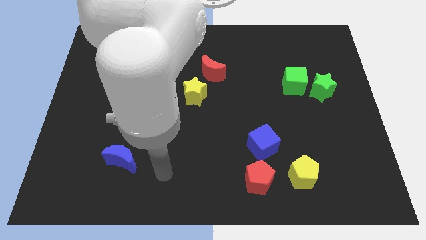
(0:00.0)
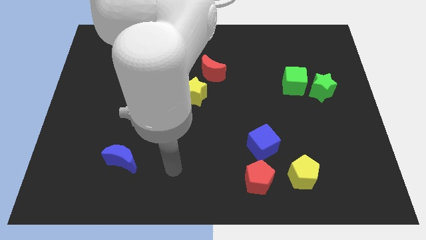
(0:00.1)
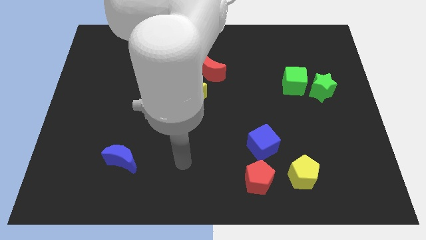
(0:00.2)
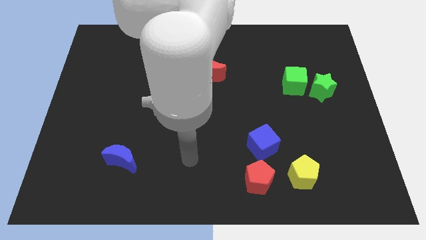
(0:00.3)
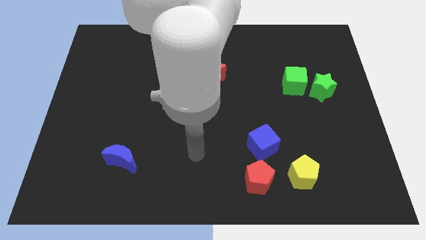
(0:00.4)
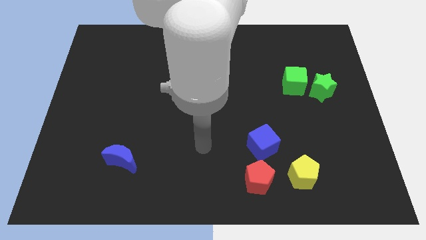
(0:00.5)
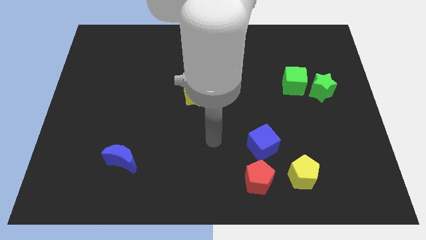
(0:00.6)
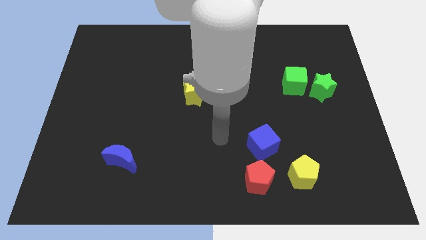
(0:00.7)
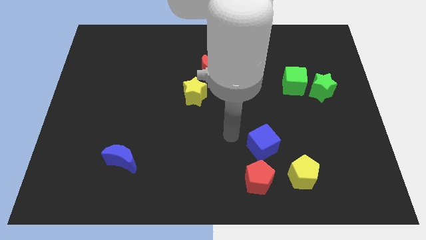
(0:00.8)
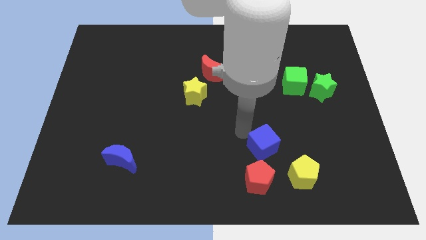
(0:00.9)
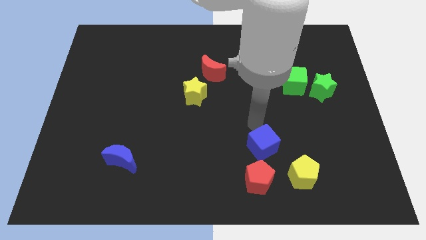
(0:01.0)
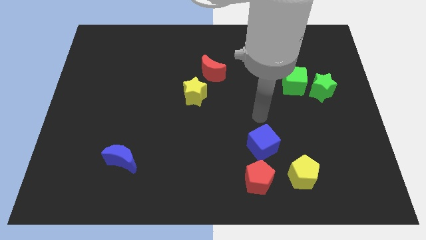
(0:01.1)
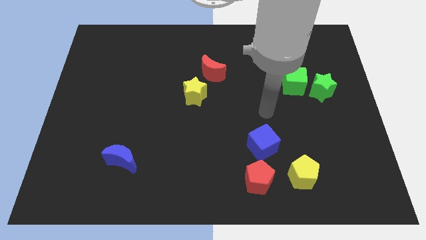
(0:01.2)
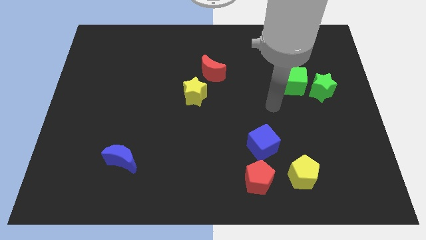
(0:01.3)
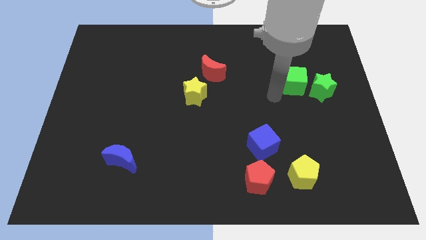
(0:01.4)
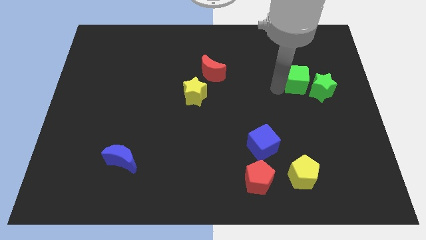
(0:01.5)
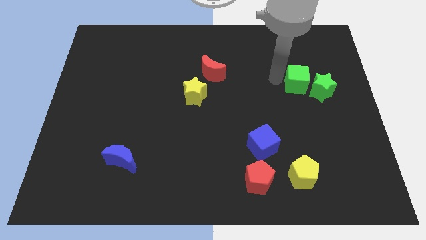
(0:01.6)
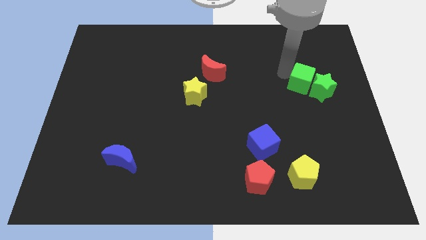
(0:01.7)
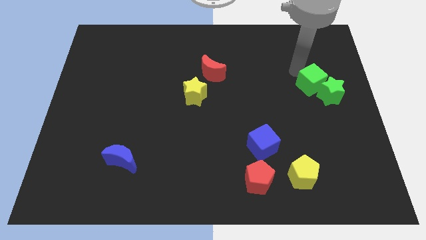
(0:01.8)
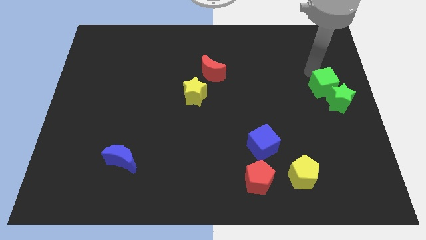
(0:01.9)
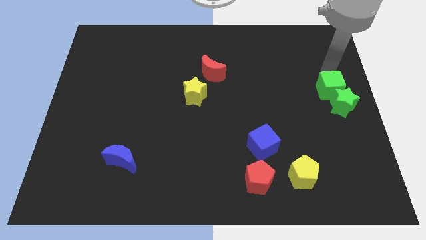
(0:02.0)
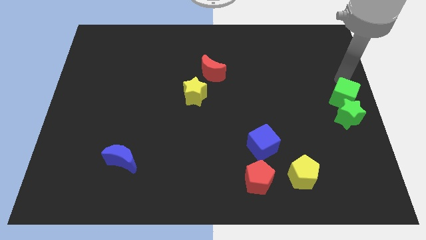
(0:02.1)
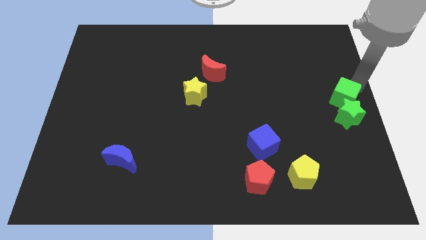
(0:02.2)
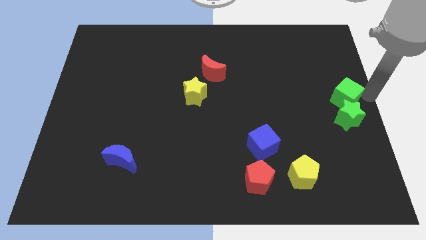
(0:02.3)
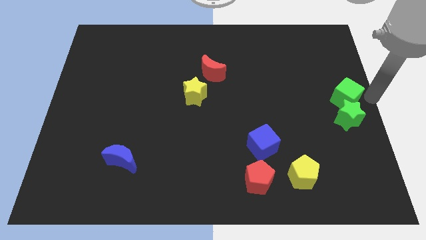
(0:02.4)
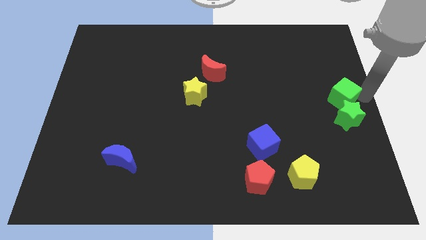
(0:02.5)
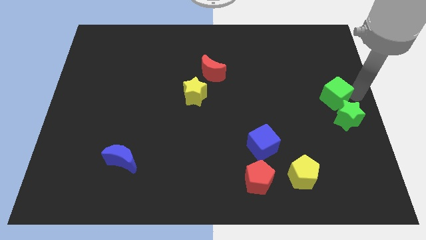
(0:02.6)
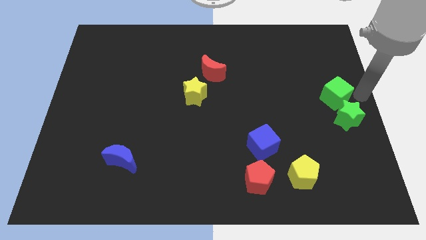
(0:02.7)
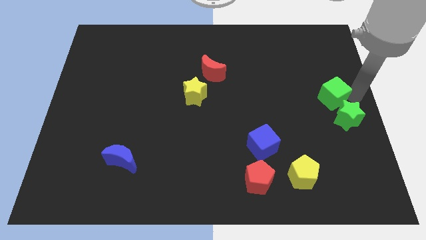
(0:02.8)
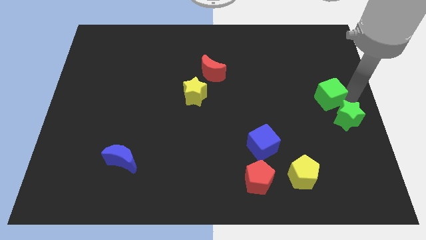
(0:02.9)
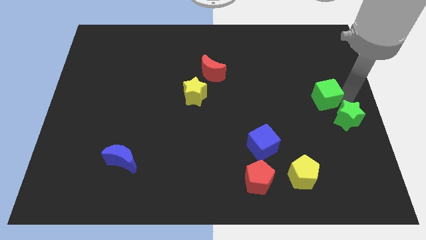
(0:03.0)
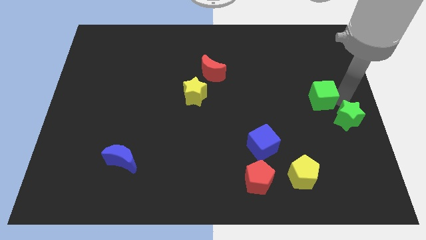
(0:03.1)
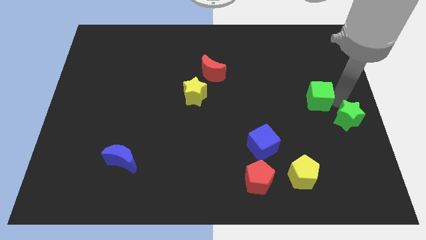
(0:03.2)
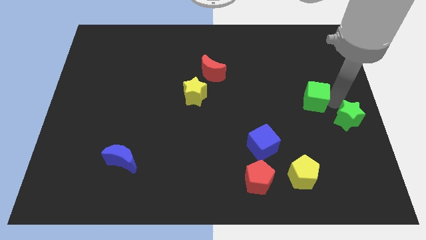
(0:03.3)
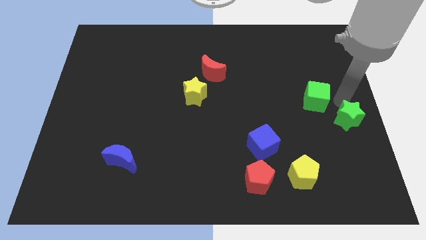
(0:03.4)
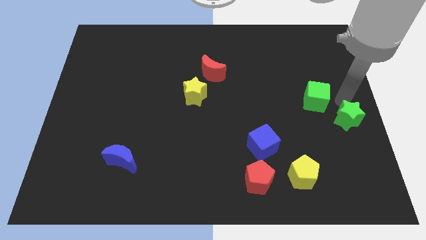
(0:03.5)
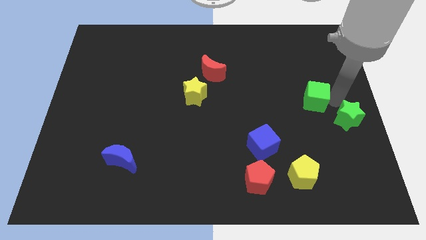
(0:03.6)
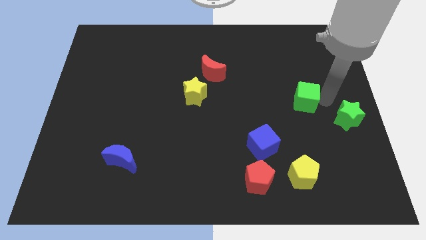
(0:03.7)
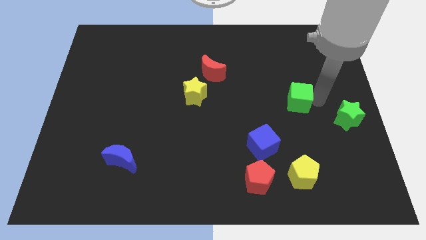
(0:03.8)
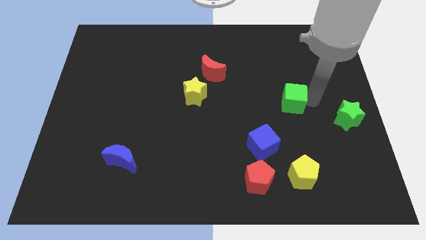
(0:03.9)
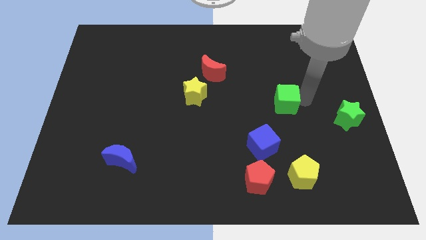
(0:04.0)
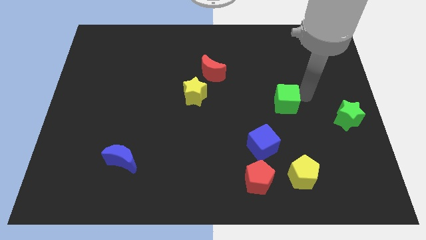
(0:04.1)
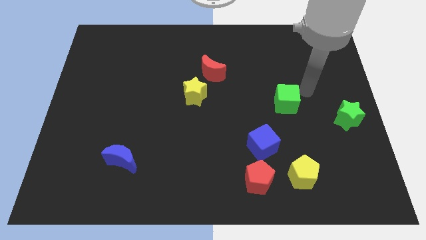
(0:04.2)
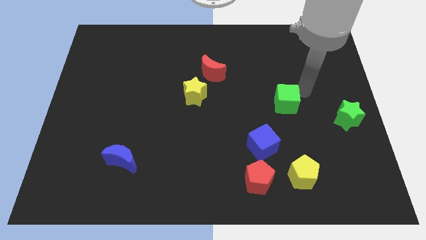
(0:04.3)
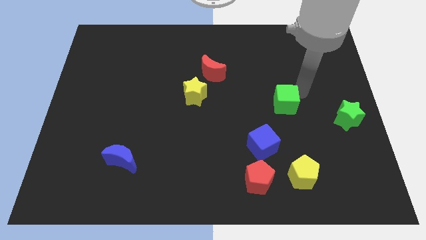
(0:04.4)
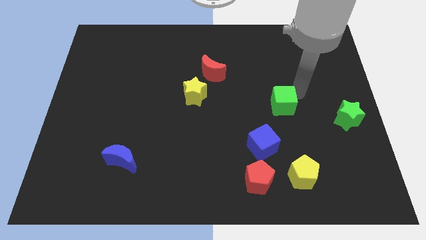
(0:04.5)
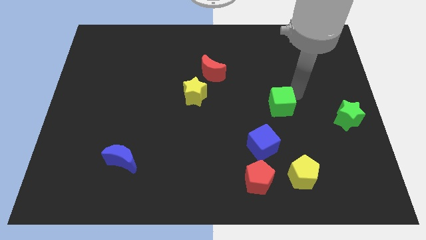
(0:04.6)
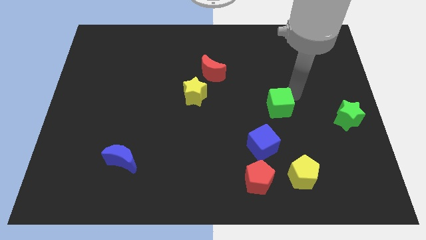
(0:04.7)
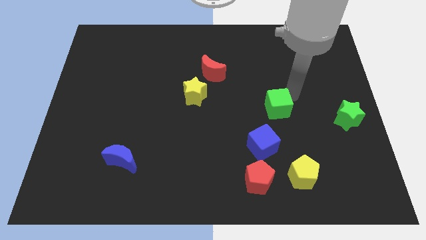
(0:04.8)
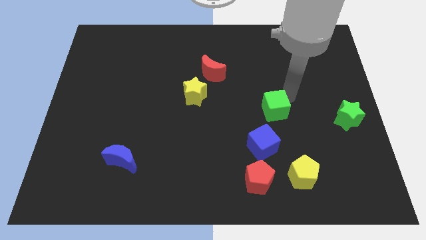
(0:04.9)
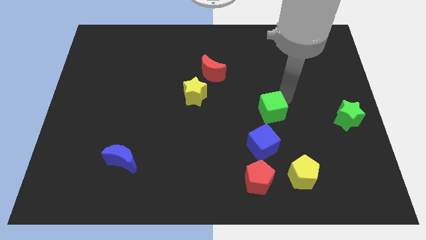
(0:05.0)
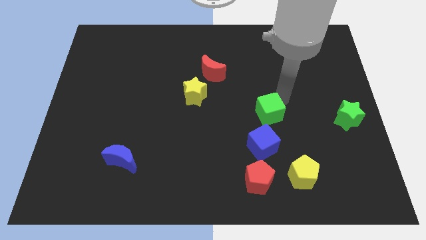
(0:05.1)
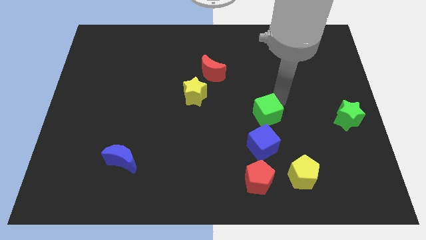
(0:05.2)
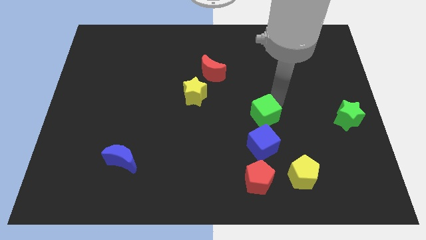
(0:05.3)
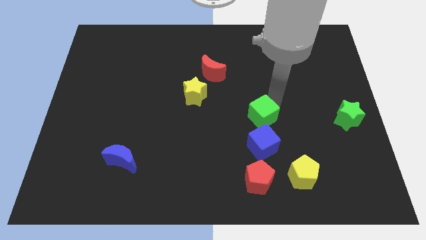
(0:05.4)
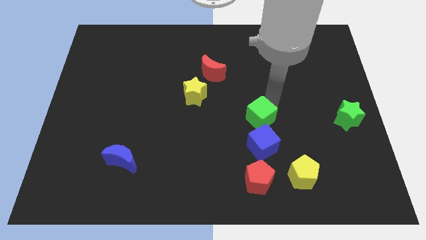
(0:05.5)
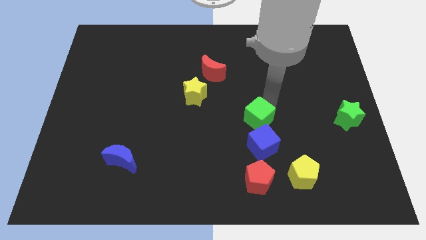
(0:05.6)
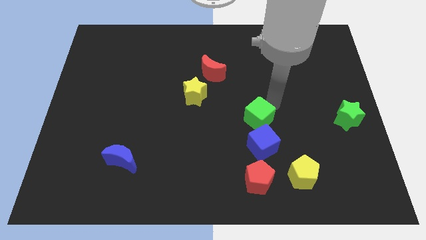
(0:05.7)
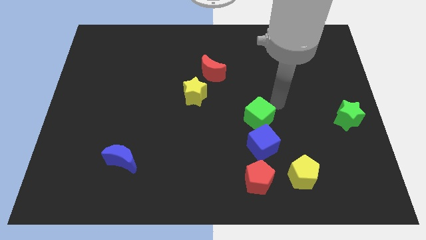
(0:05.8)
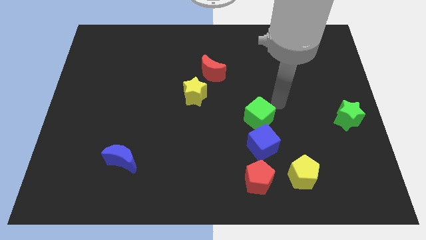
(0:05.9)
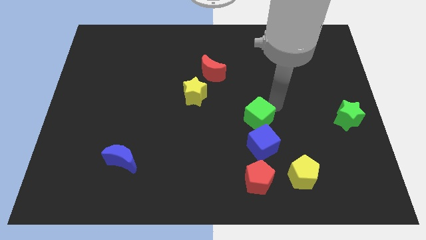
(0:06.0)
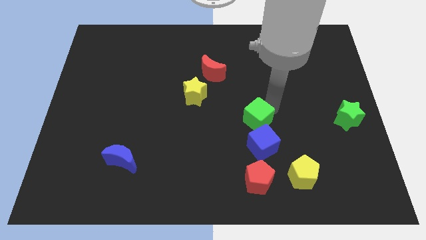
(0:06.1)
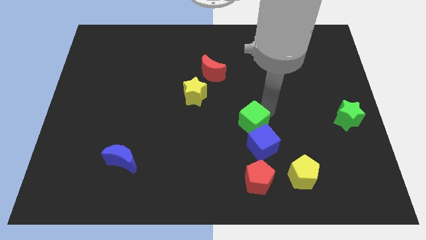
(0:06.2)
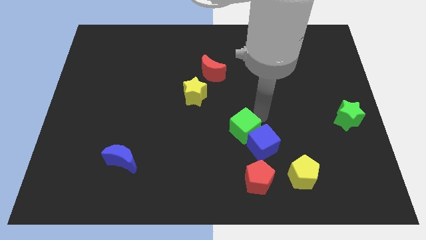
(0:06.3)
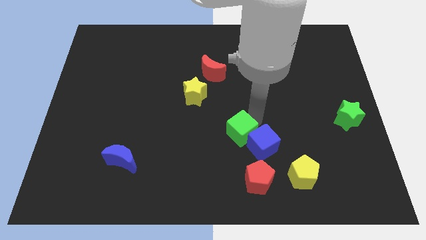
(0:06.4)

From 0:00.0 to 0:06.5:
move the green cube downwards and left diagonally

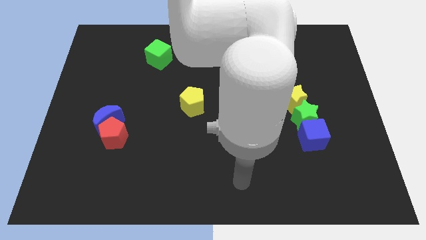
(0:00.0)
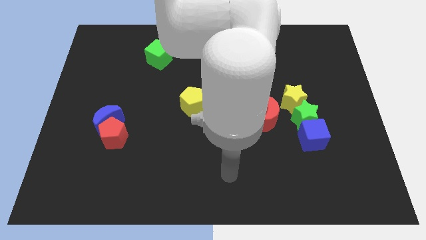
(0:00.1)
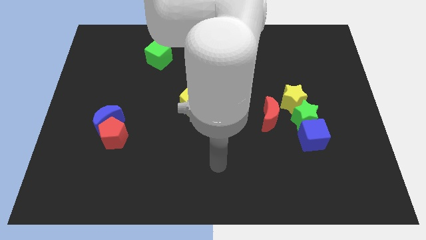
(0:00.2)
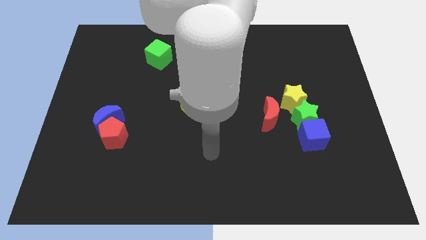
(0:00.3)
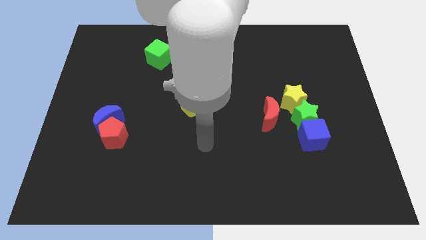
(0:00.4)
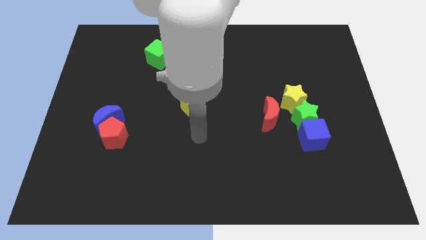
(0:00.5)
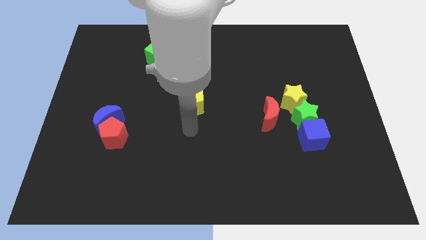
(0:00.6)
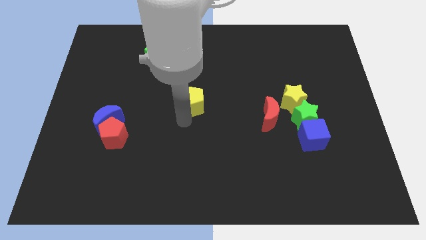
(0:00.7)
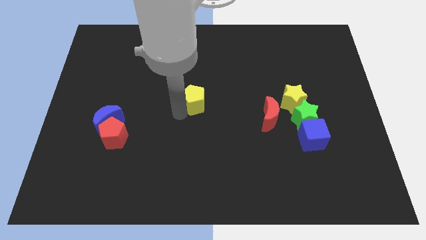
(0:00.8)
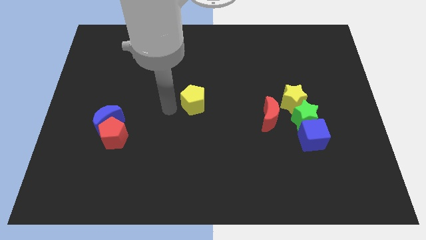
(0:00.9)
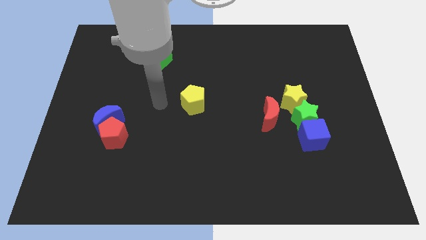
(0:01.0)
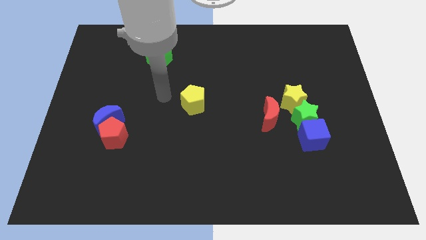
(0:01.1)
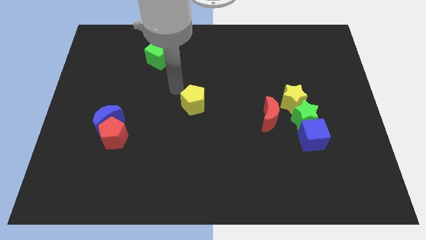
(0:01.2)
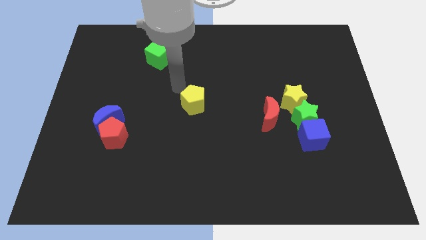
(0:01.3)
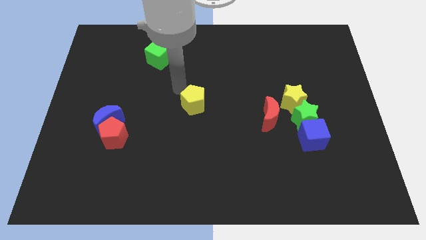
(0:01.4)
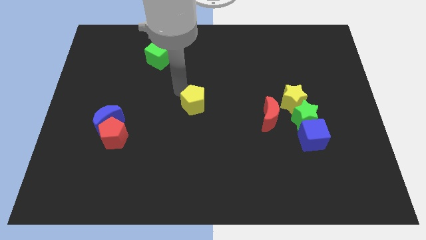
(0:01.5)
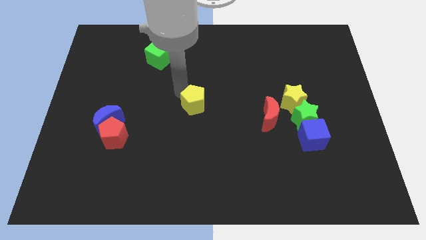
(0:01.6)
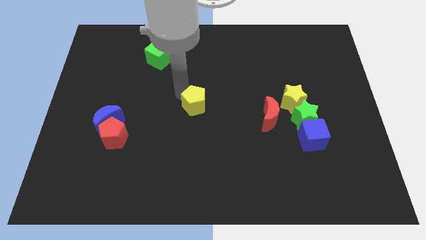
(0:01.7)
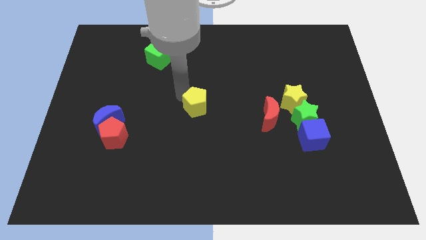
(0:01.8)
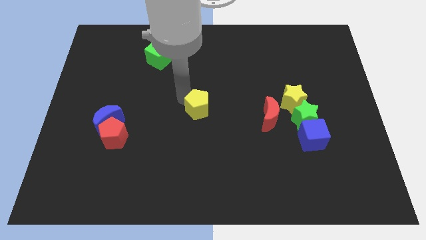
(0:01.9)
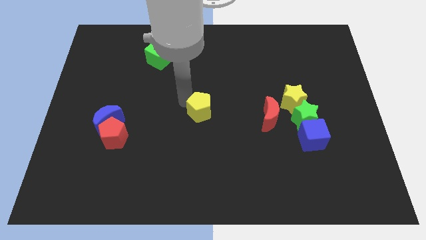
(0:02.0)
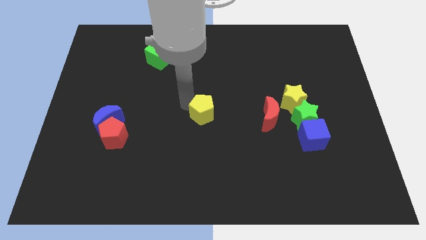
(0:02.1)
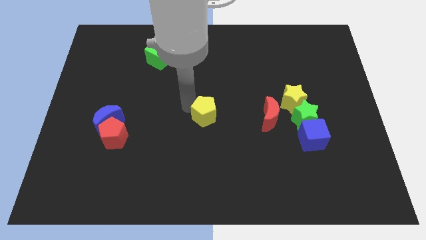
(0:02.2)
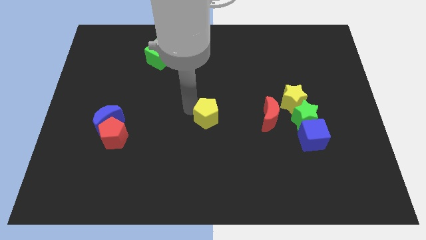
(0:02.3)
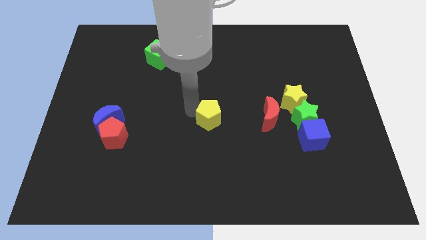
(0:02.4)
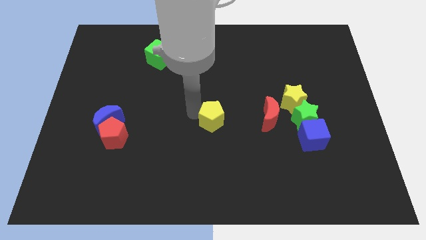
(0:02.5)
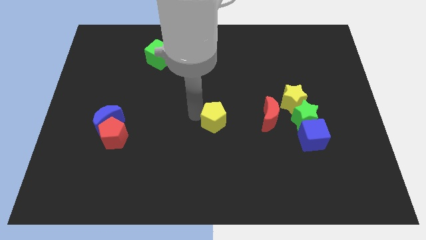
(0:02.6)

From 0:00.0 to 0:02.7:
push the yellow pentagon slightly downwards and right diagonally
